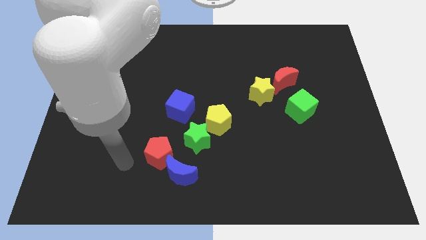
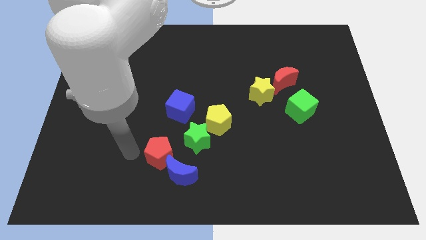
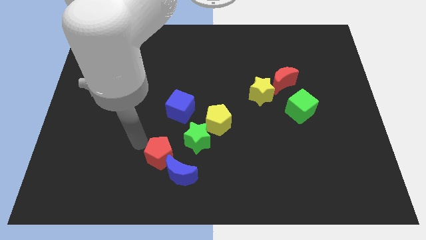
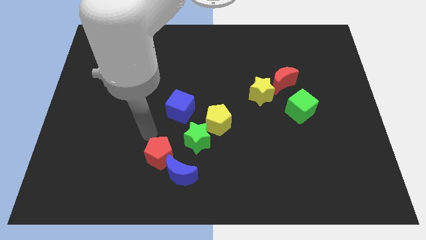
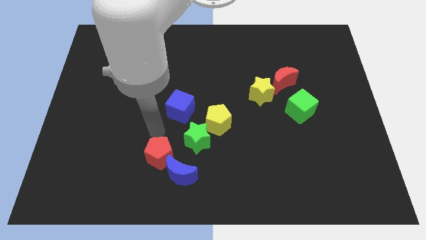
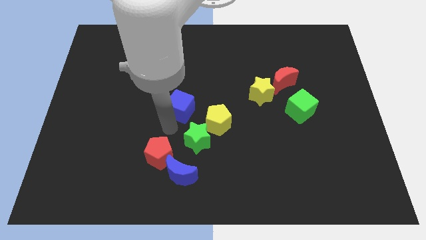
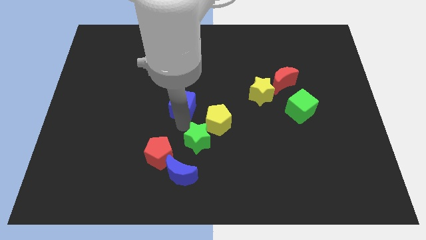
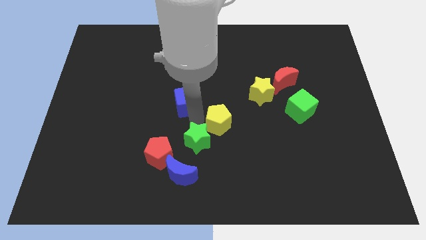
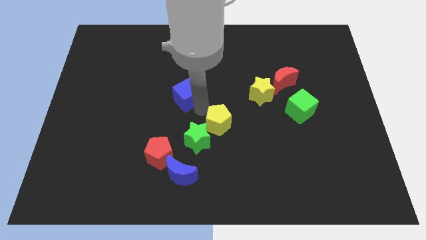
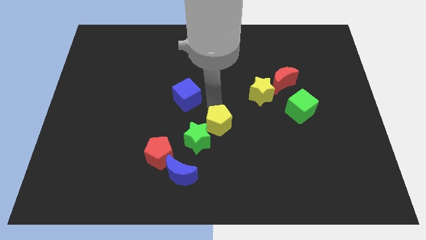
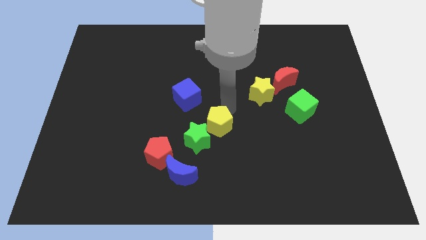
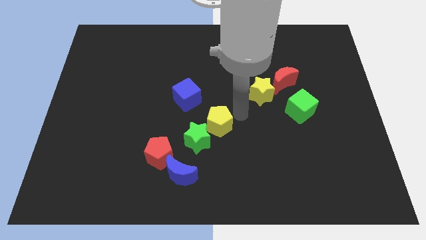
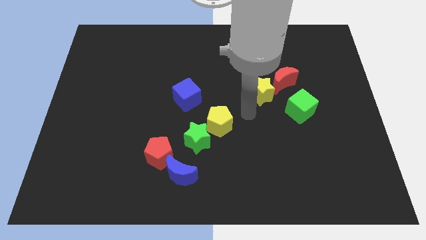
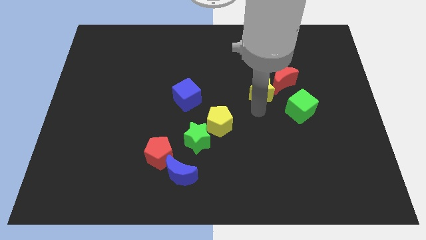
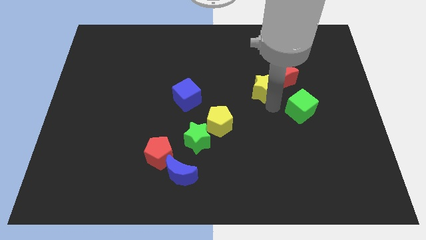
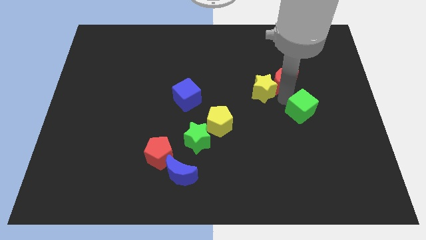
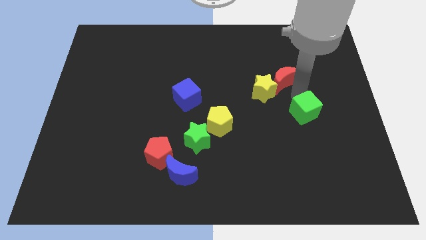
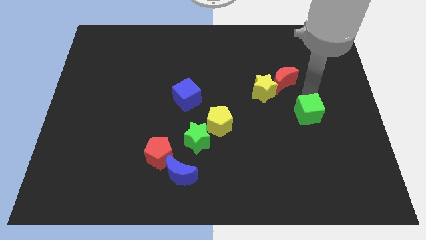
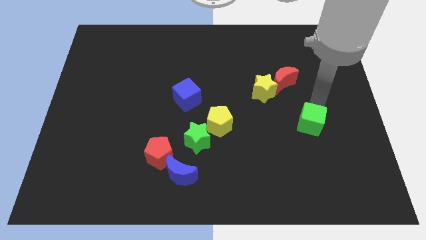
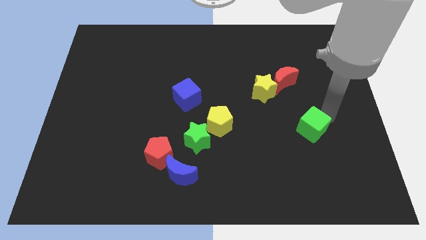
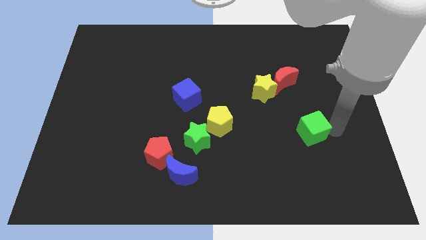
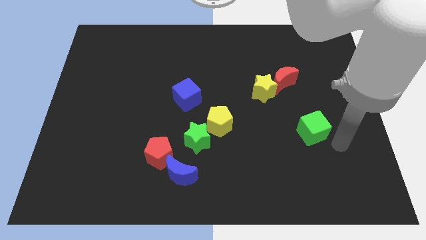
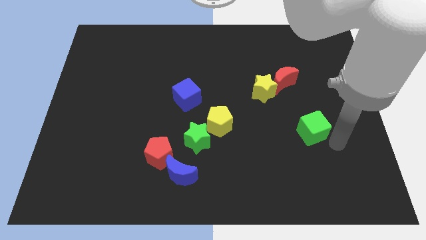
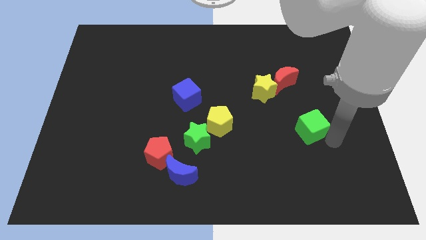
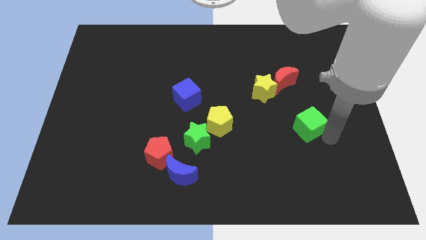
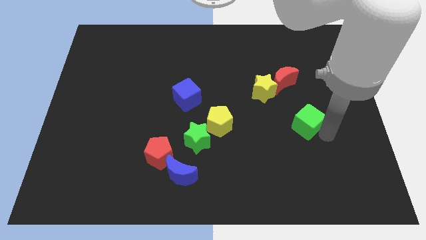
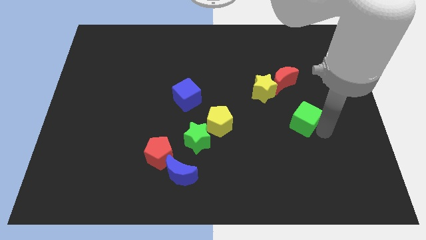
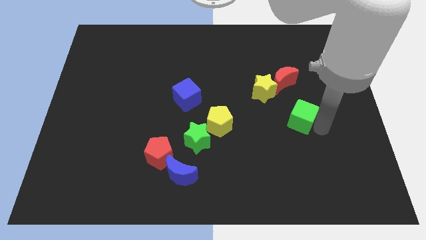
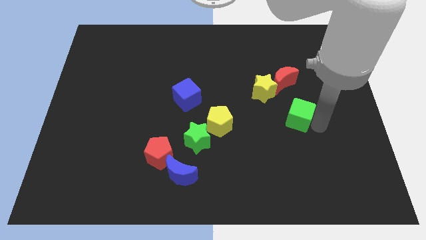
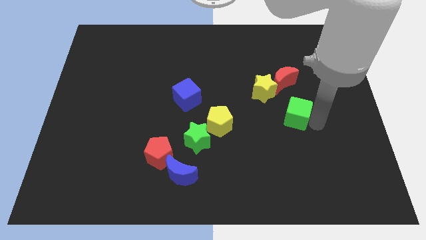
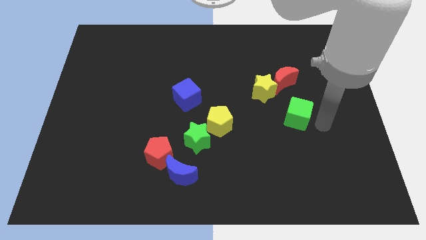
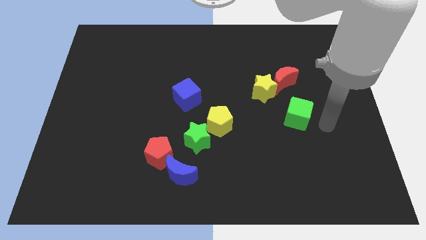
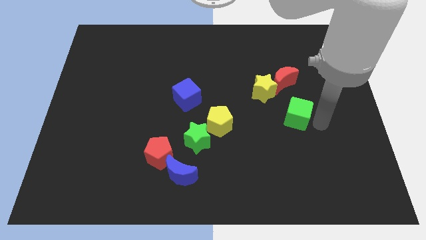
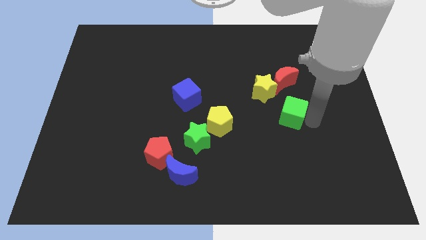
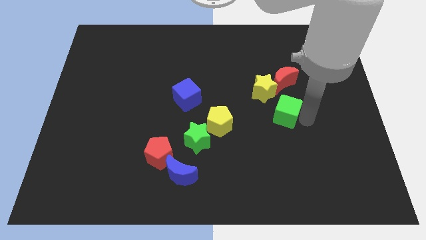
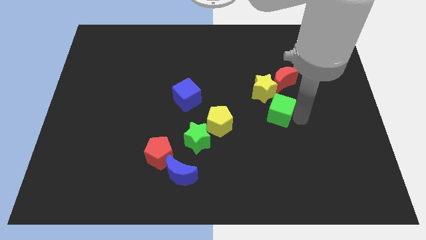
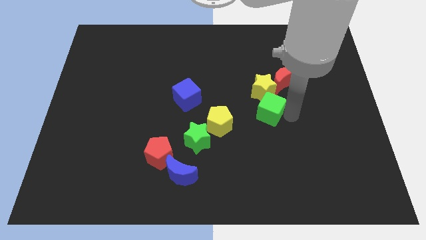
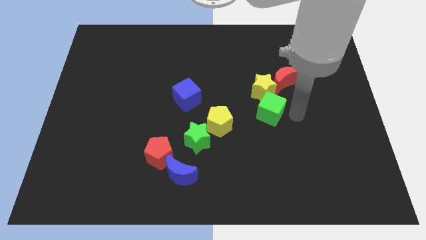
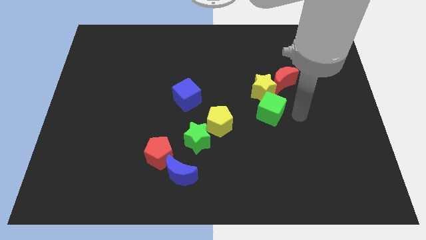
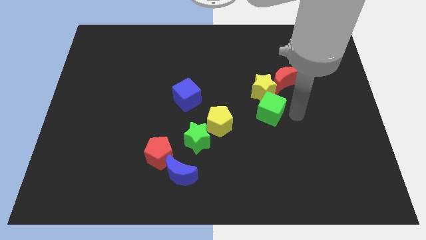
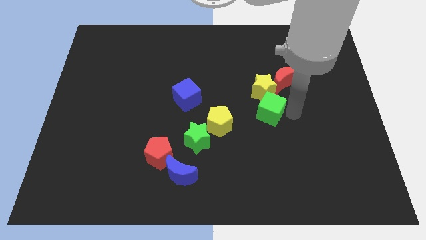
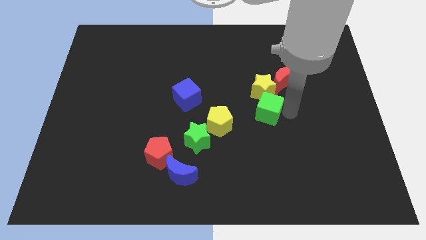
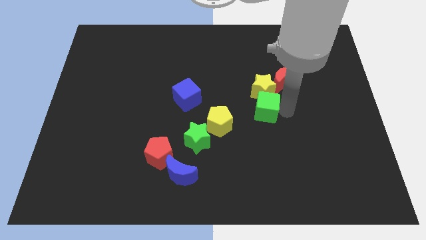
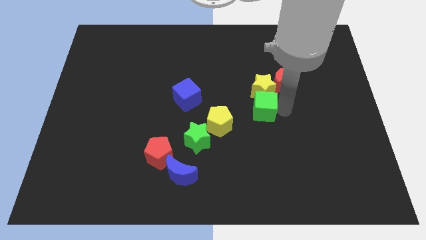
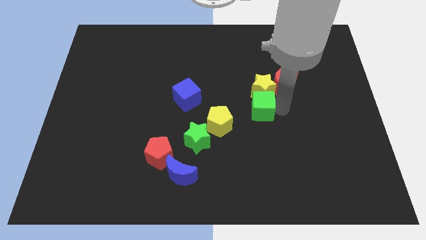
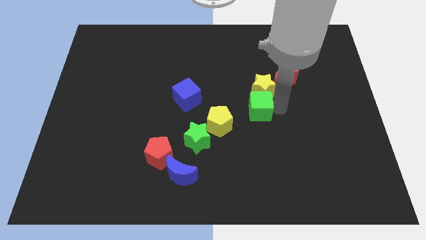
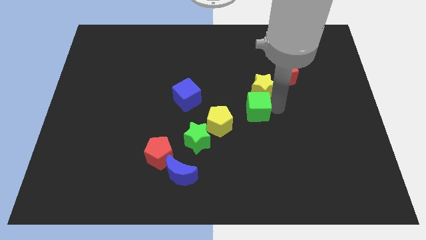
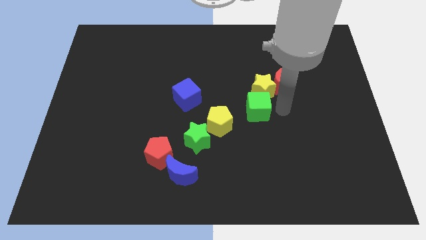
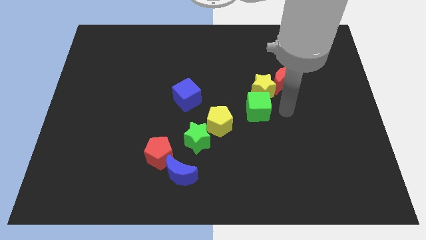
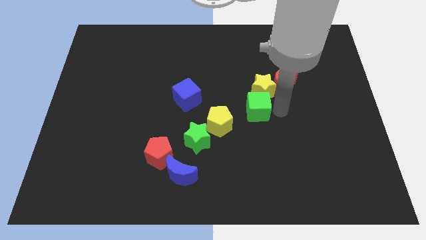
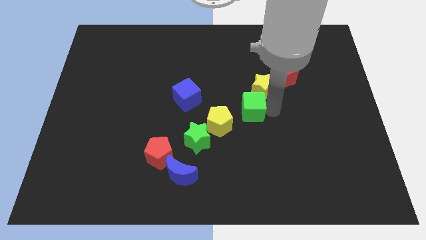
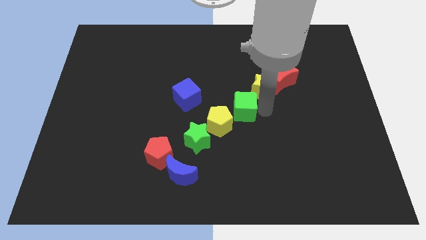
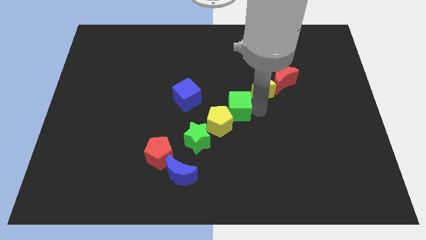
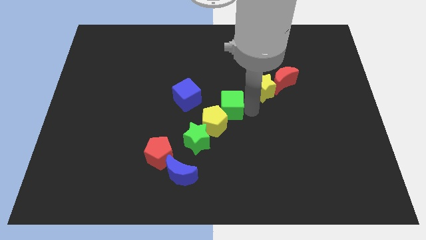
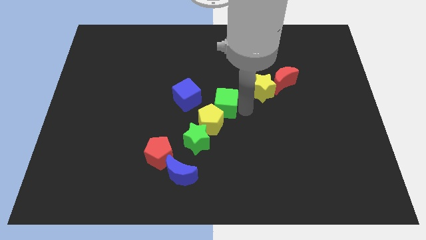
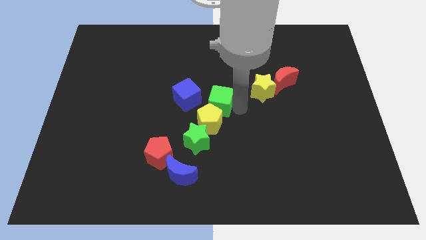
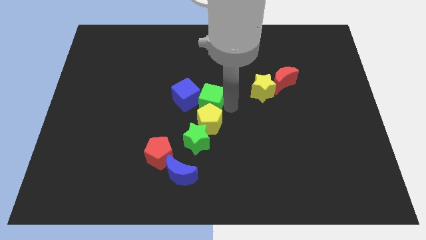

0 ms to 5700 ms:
push the green cube towards the blue cube

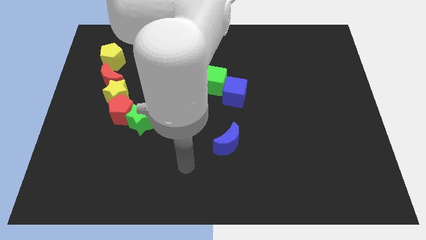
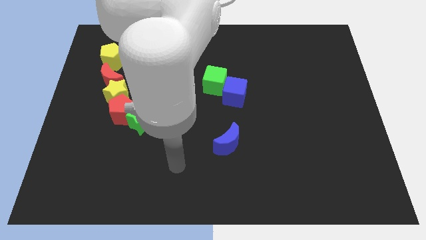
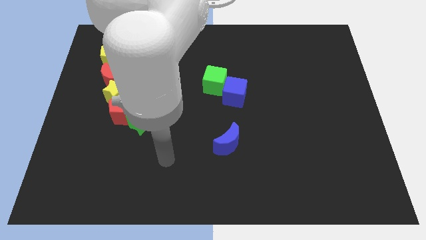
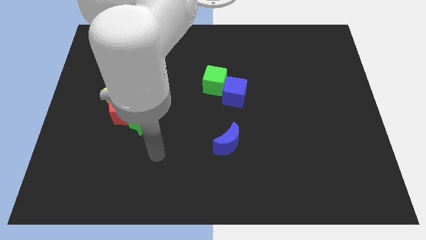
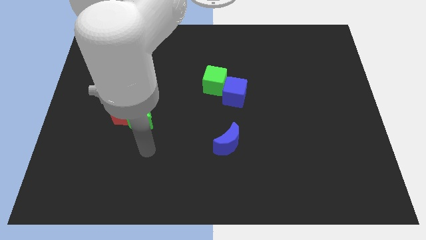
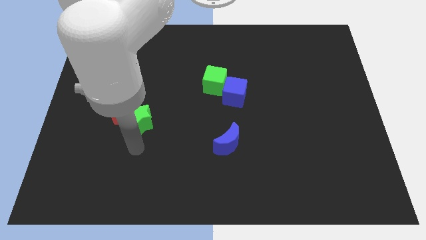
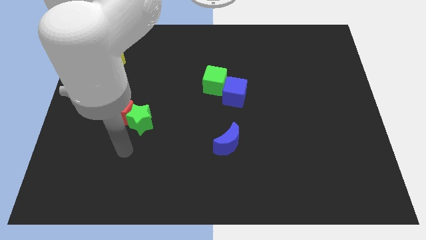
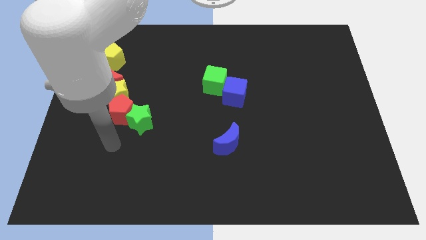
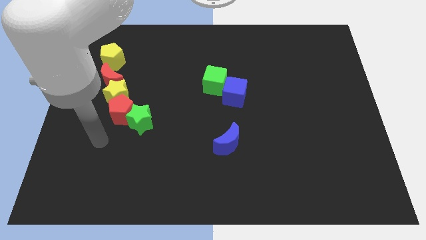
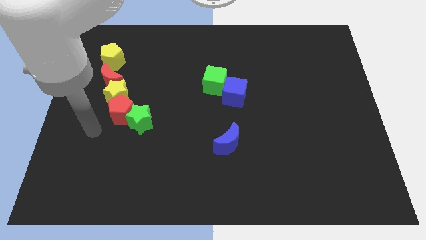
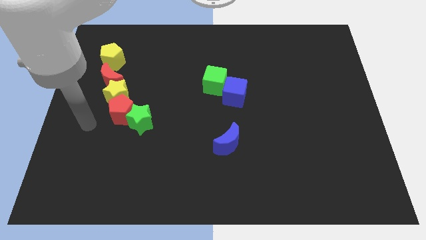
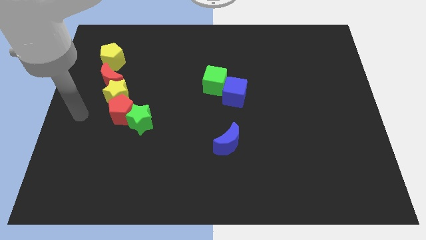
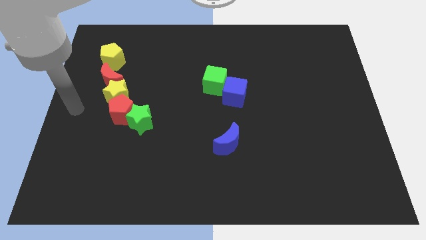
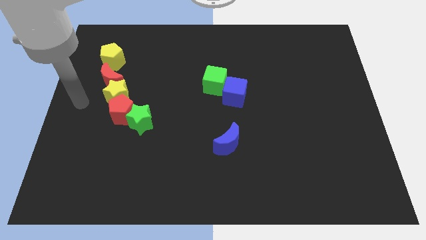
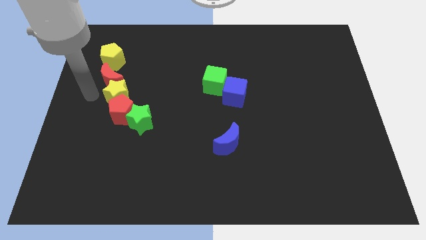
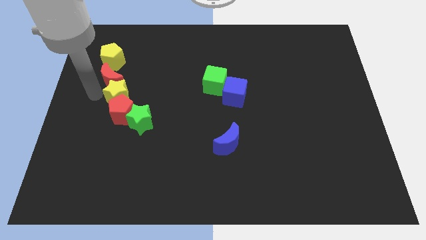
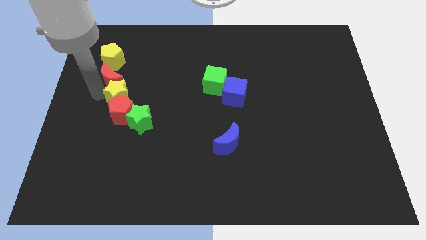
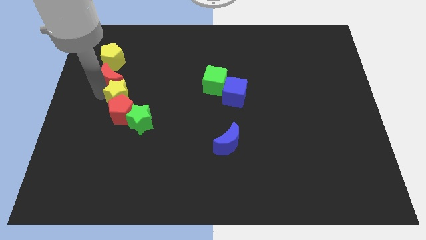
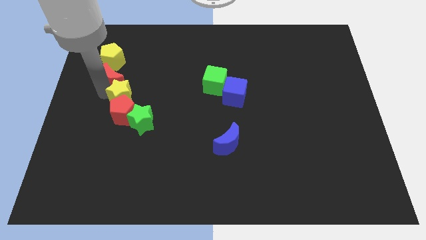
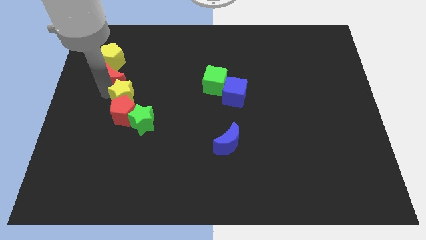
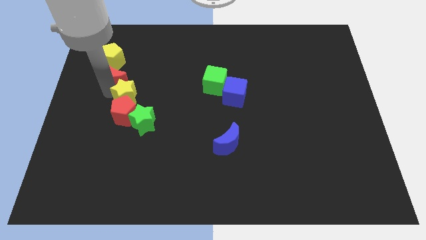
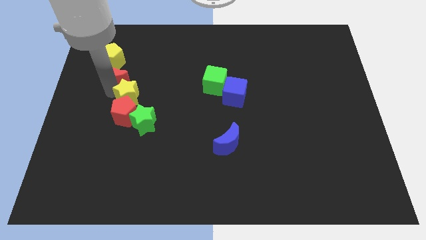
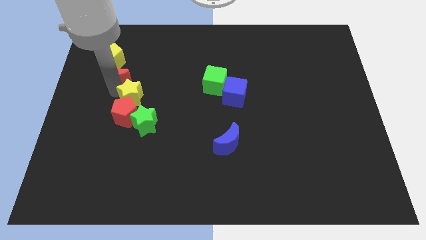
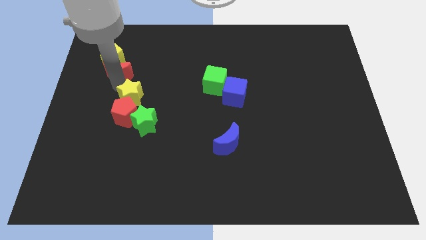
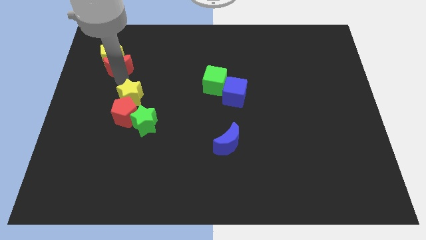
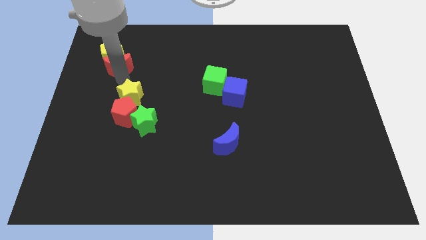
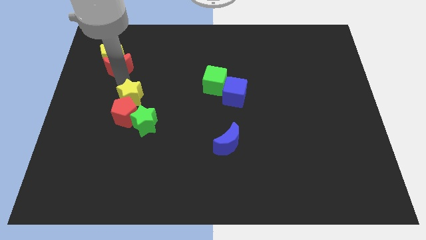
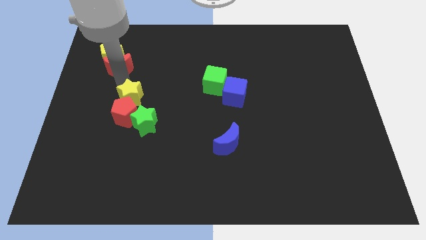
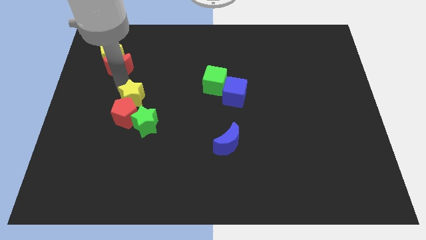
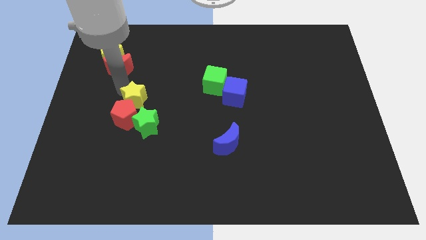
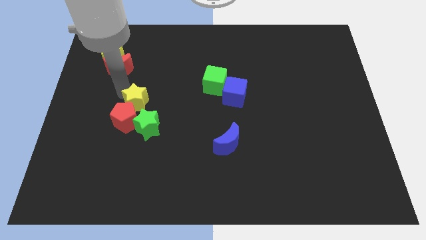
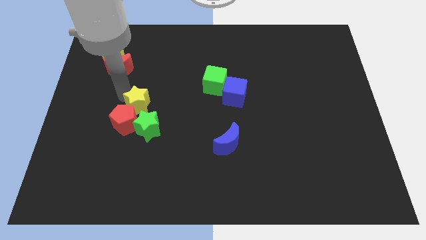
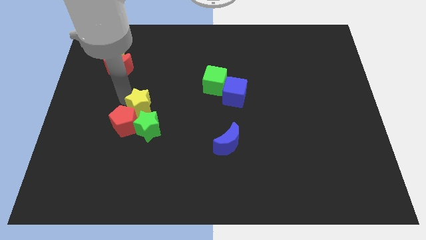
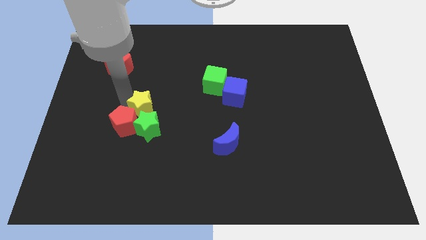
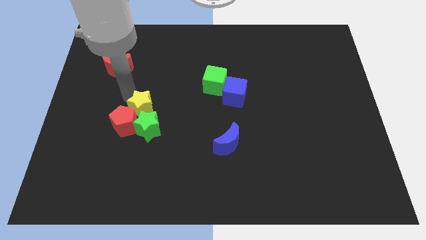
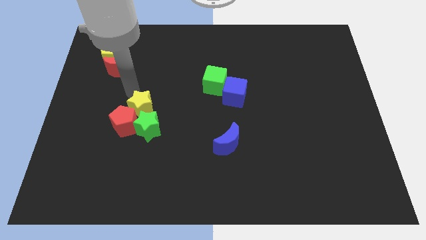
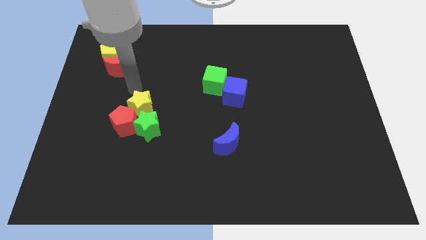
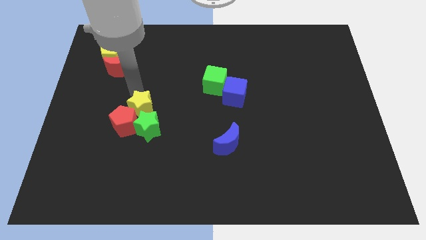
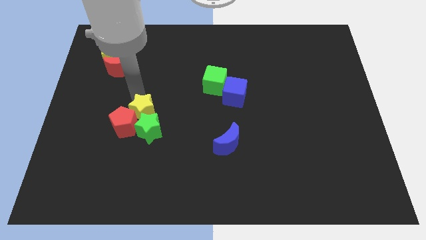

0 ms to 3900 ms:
push the yellow star close to the green star
